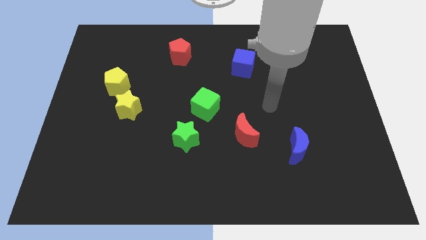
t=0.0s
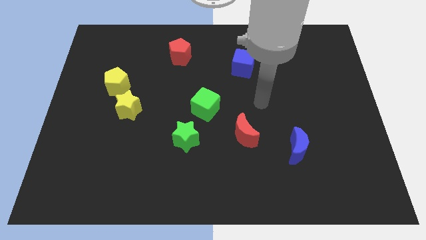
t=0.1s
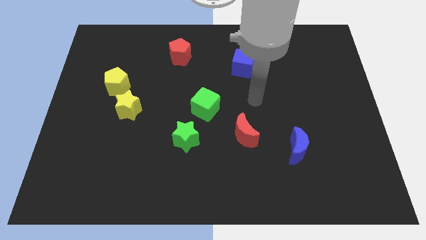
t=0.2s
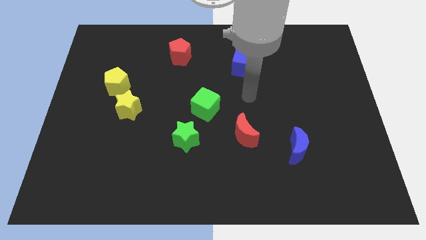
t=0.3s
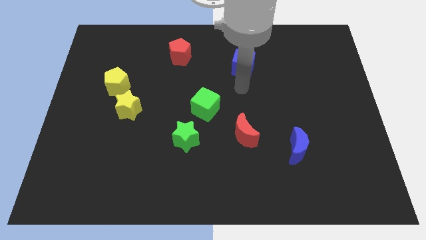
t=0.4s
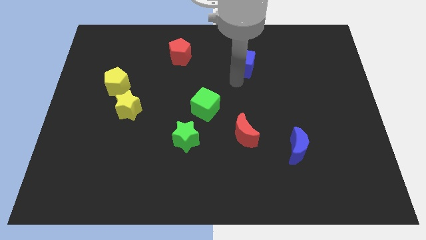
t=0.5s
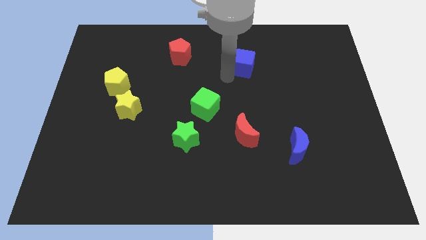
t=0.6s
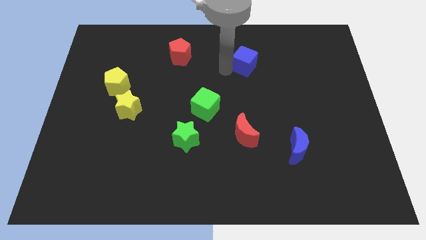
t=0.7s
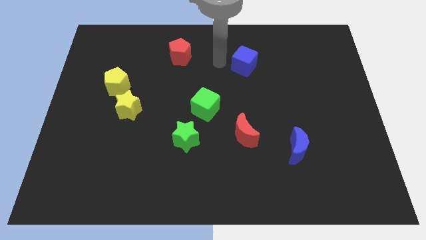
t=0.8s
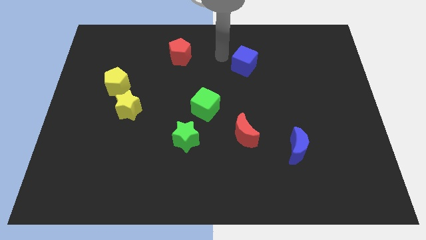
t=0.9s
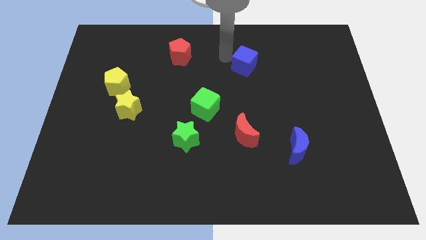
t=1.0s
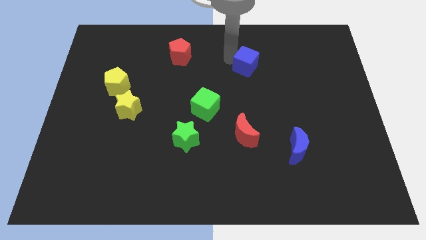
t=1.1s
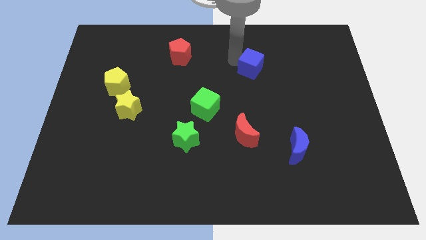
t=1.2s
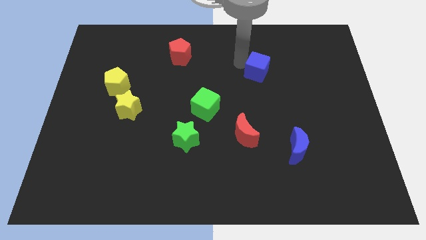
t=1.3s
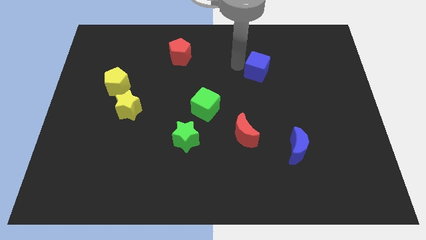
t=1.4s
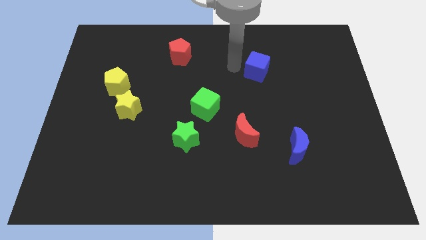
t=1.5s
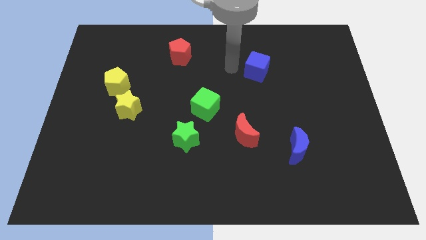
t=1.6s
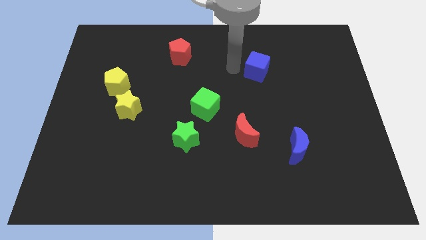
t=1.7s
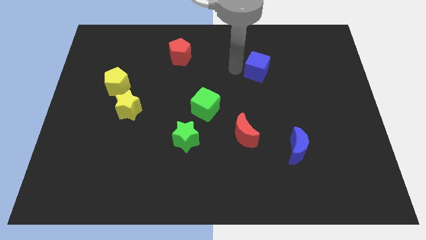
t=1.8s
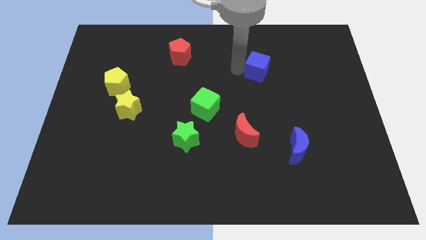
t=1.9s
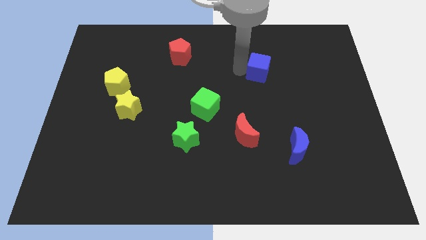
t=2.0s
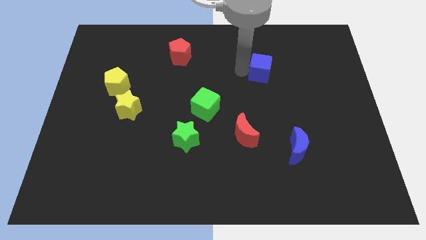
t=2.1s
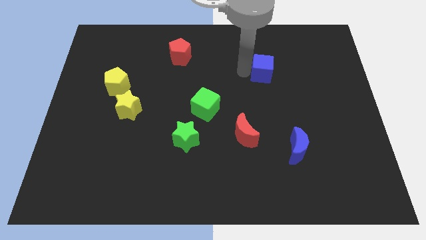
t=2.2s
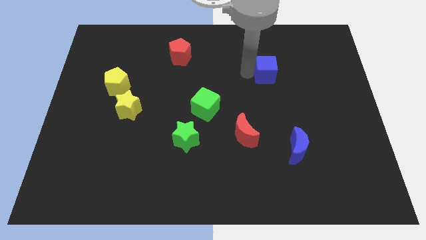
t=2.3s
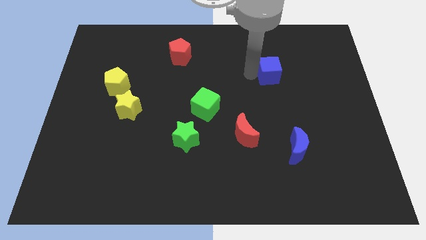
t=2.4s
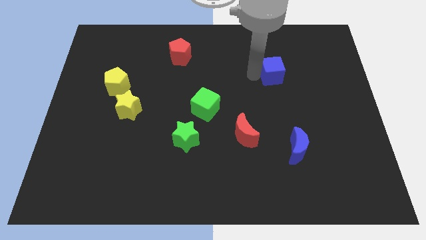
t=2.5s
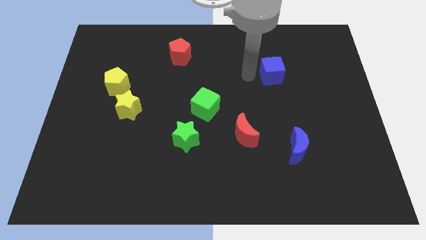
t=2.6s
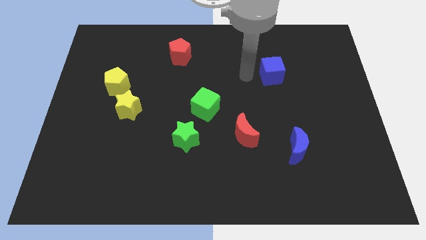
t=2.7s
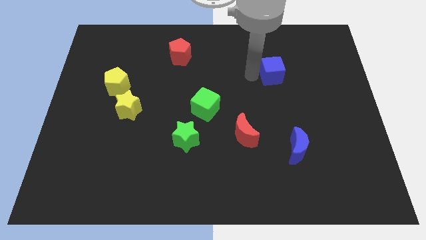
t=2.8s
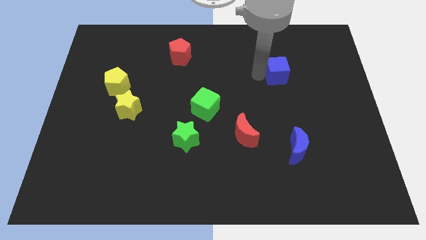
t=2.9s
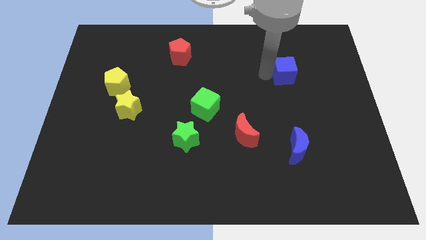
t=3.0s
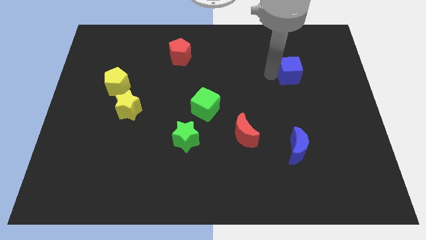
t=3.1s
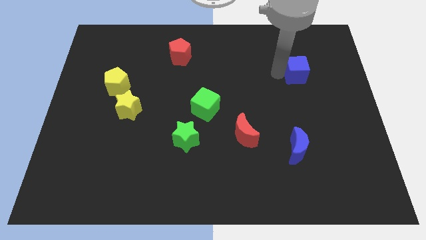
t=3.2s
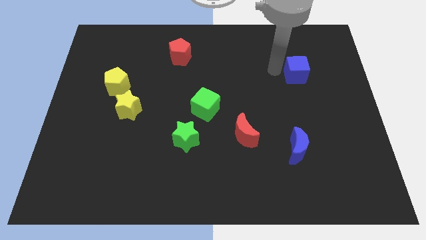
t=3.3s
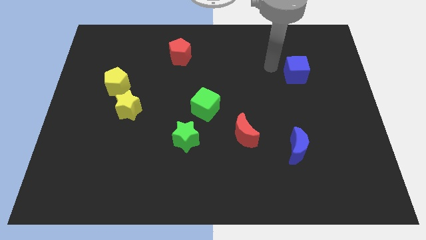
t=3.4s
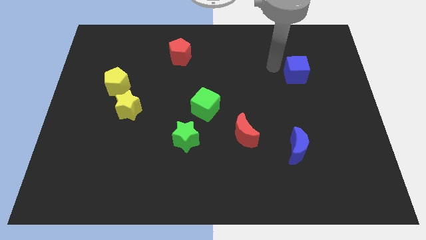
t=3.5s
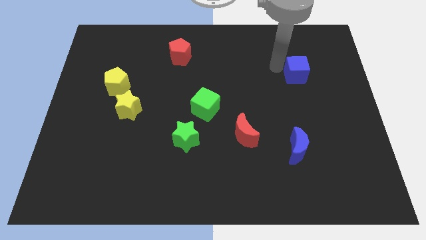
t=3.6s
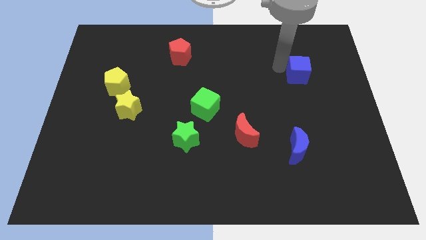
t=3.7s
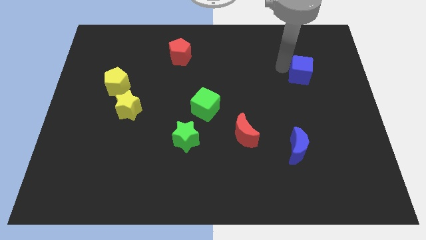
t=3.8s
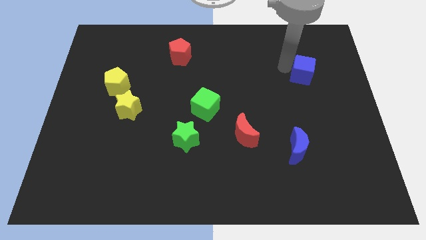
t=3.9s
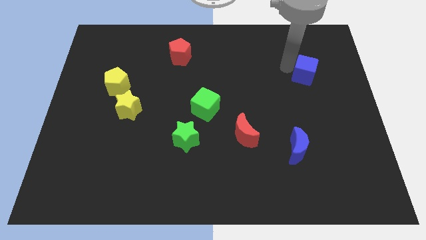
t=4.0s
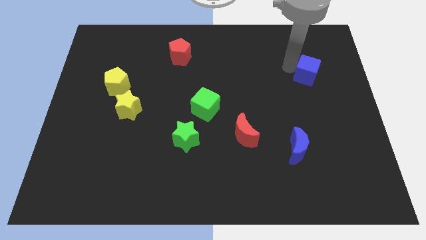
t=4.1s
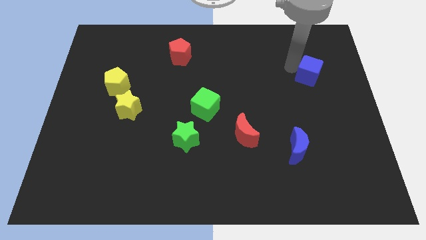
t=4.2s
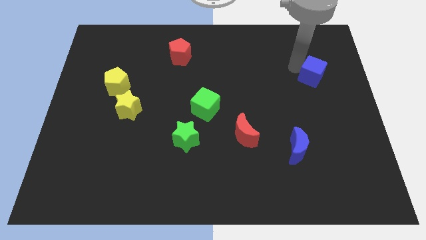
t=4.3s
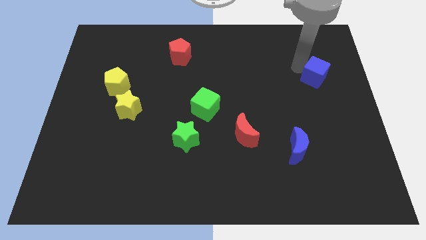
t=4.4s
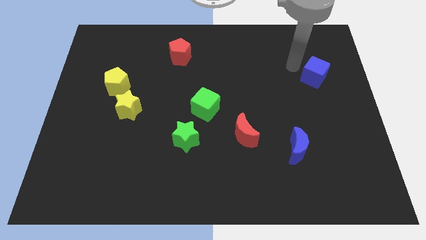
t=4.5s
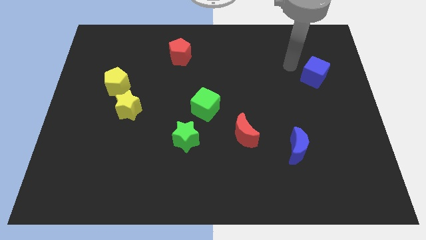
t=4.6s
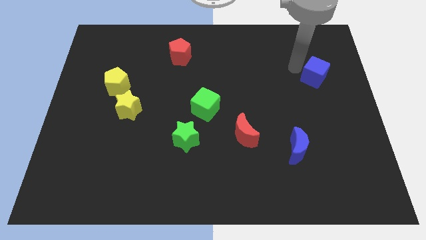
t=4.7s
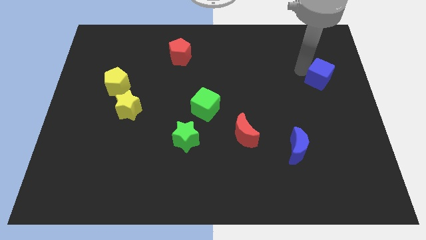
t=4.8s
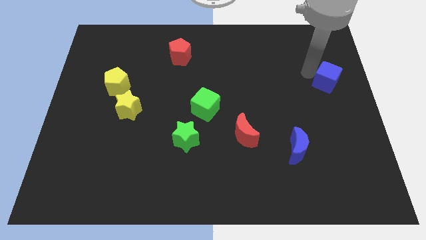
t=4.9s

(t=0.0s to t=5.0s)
put the blue cube to the right side of the board

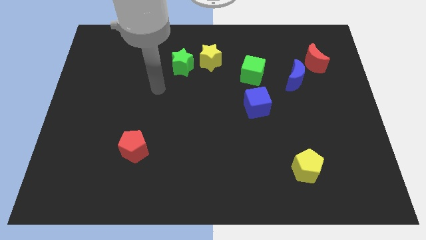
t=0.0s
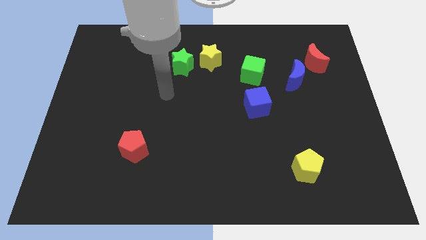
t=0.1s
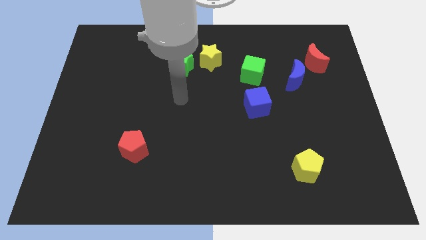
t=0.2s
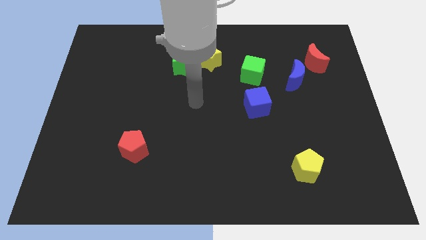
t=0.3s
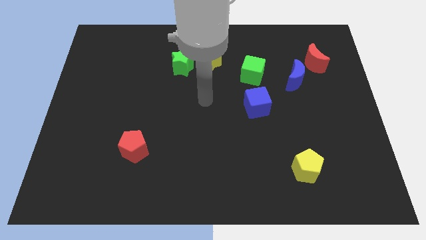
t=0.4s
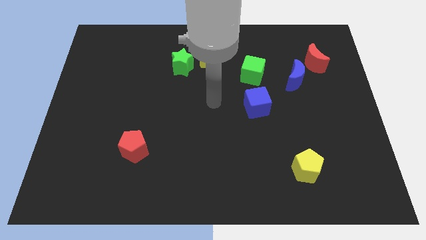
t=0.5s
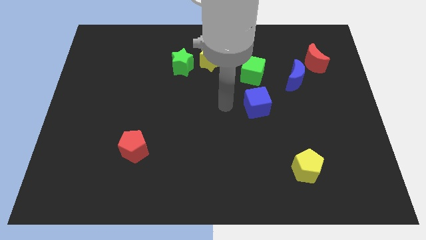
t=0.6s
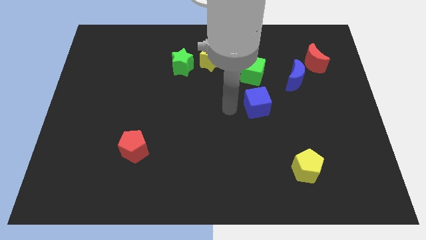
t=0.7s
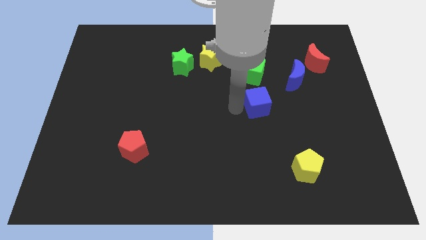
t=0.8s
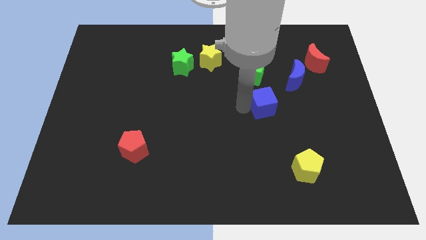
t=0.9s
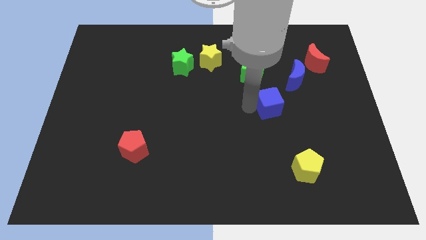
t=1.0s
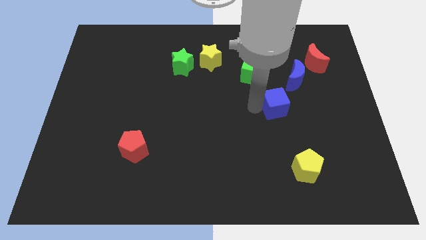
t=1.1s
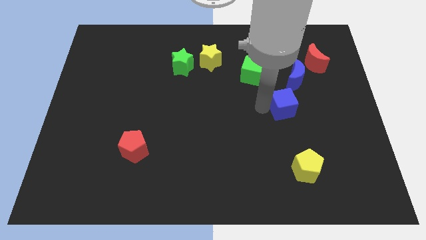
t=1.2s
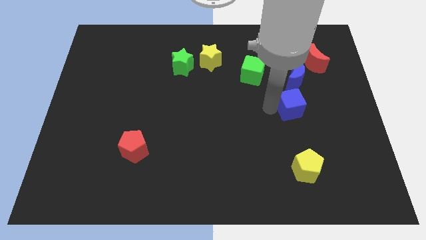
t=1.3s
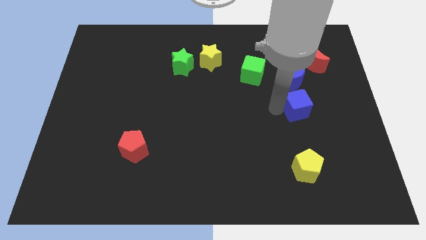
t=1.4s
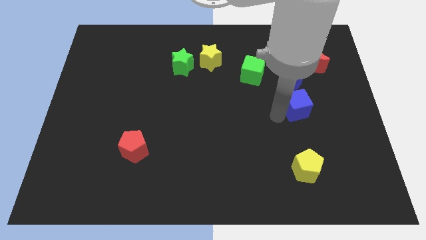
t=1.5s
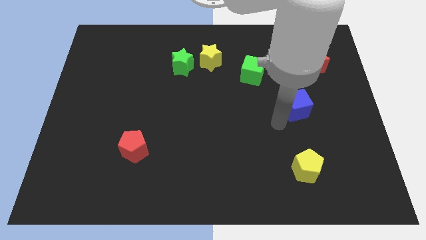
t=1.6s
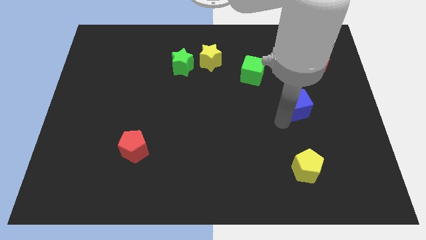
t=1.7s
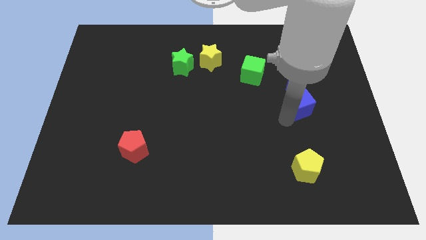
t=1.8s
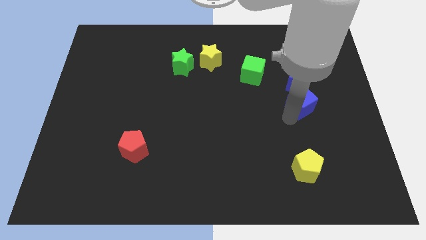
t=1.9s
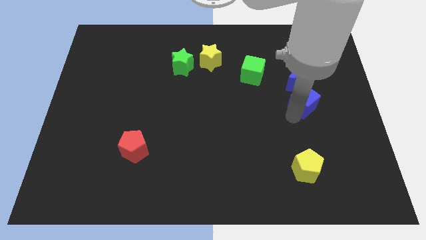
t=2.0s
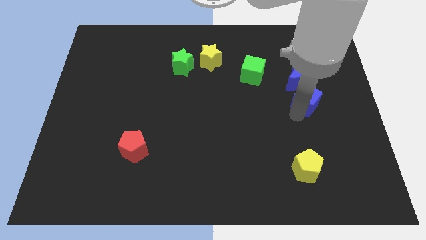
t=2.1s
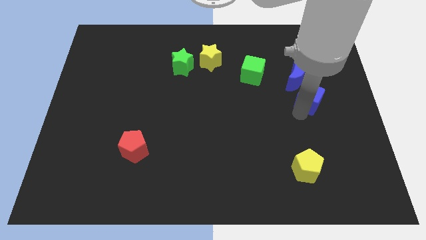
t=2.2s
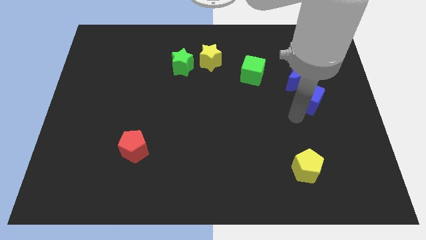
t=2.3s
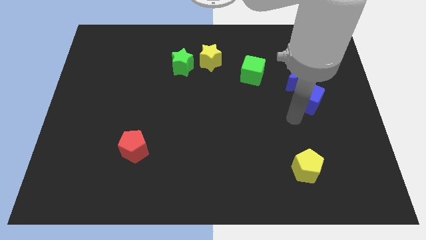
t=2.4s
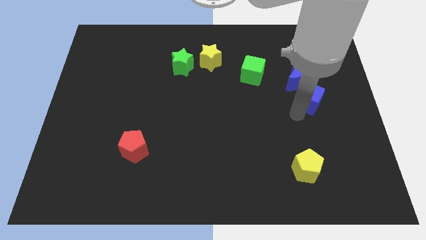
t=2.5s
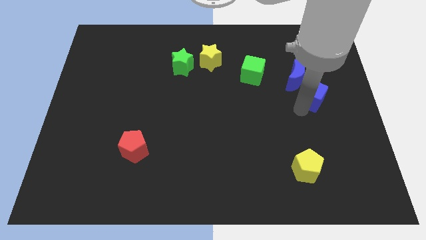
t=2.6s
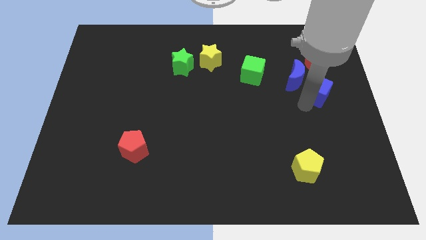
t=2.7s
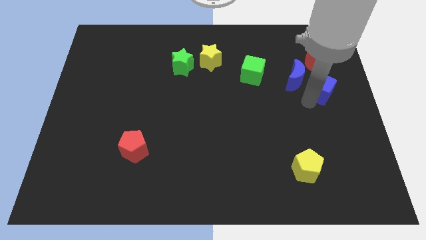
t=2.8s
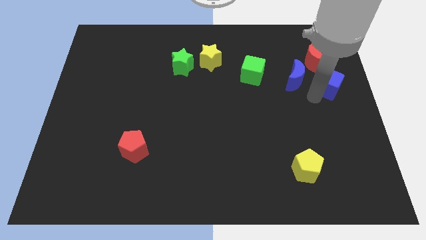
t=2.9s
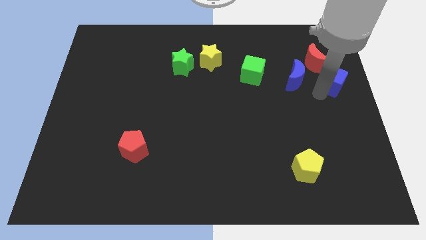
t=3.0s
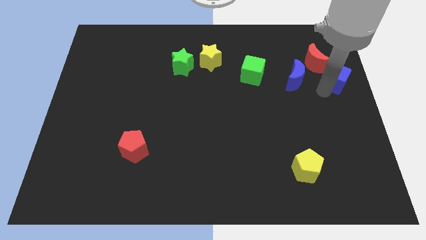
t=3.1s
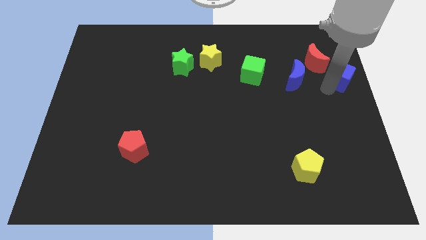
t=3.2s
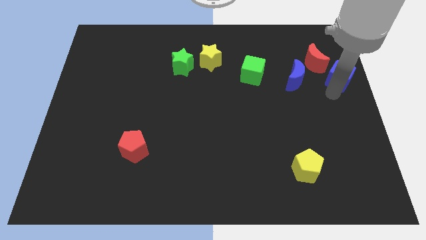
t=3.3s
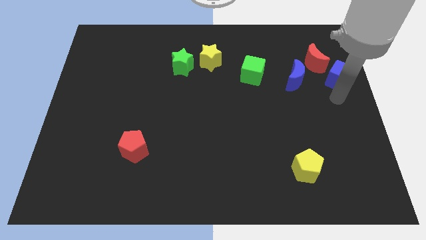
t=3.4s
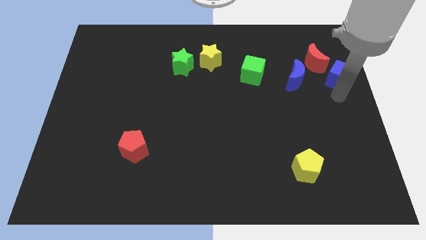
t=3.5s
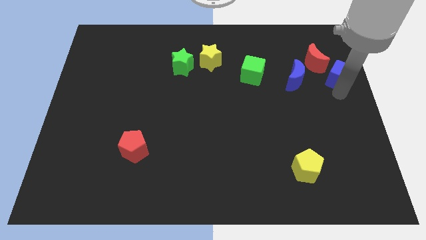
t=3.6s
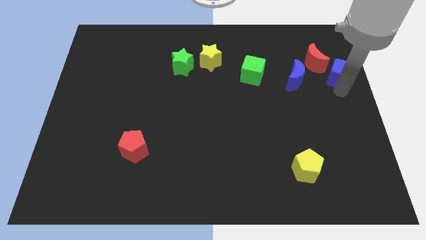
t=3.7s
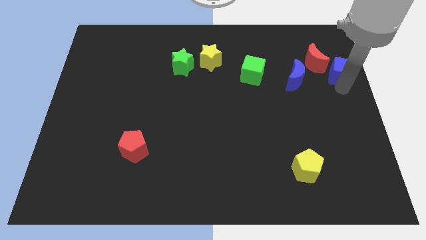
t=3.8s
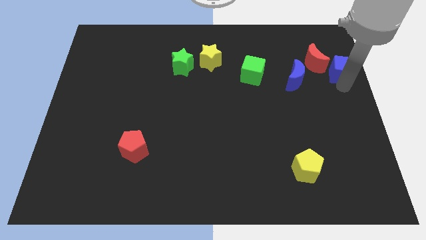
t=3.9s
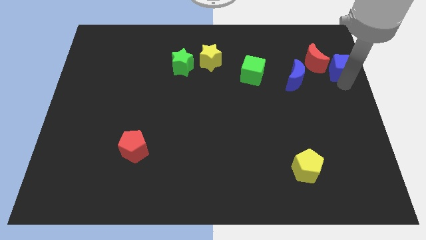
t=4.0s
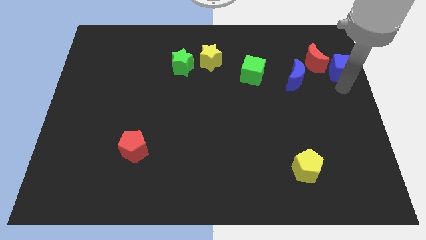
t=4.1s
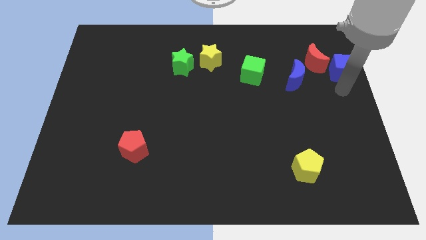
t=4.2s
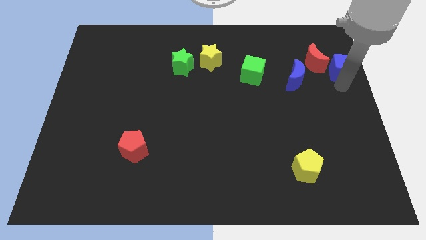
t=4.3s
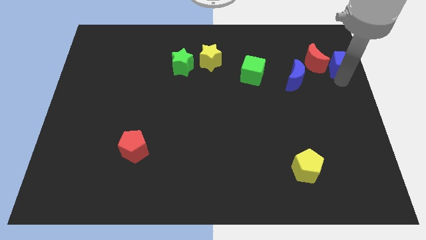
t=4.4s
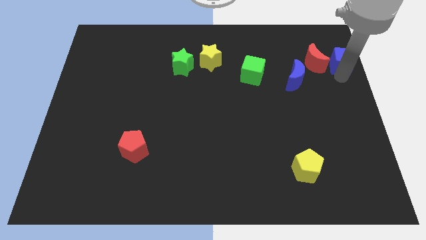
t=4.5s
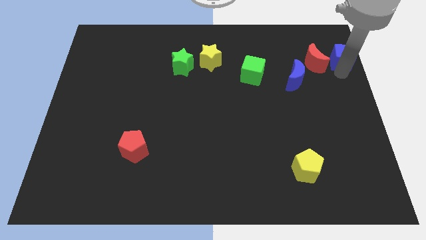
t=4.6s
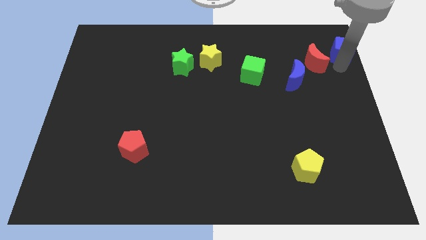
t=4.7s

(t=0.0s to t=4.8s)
slide the blue cube to the top right of the board
